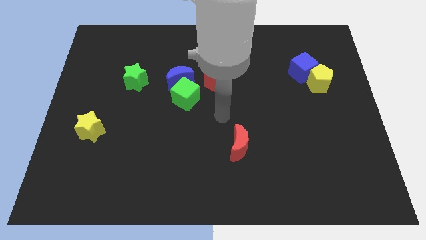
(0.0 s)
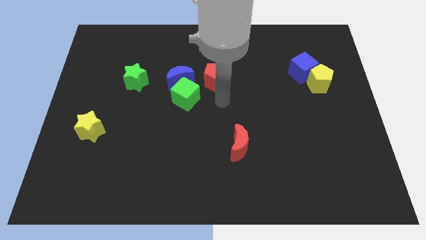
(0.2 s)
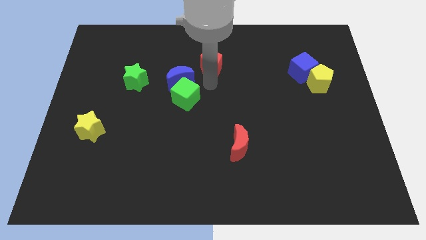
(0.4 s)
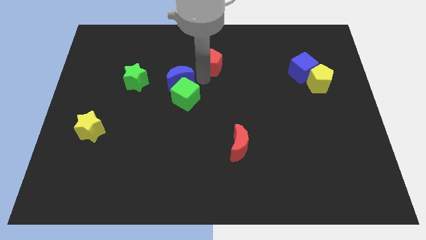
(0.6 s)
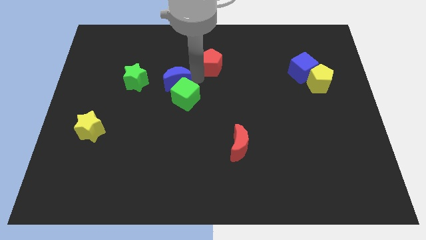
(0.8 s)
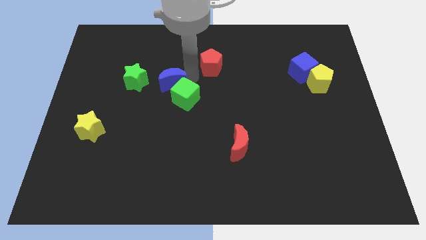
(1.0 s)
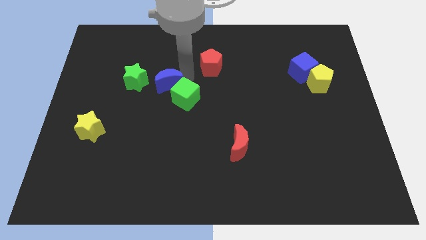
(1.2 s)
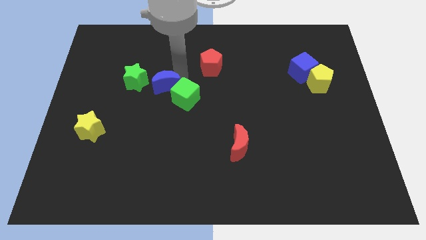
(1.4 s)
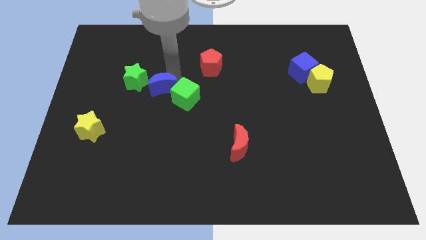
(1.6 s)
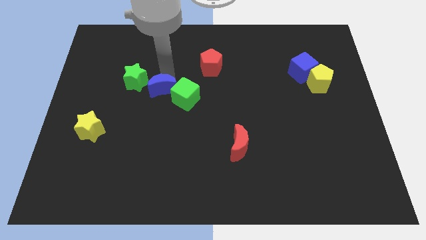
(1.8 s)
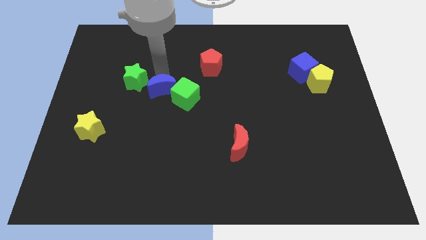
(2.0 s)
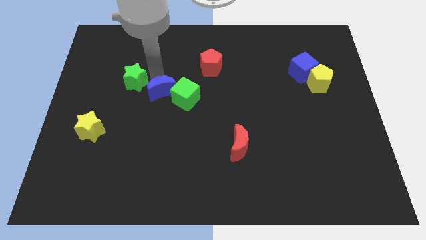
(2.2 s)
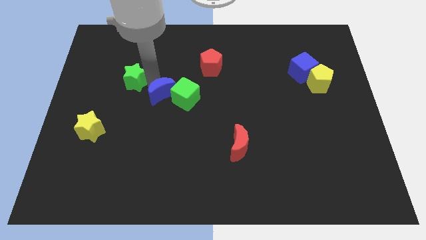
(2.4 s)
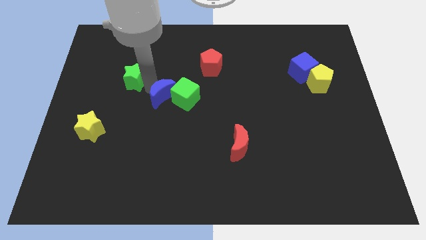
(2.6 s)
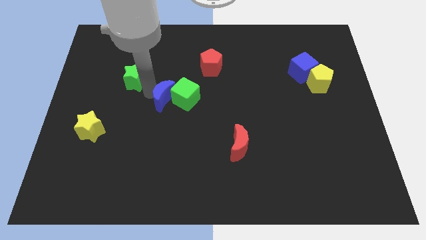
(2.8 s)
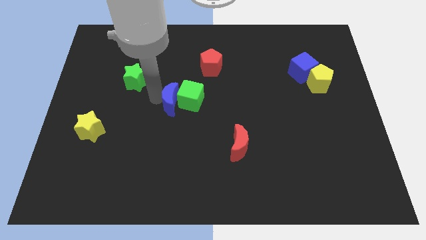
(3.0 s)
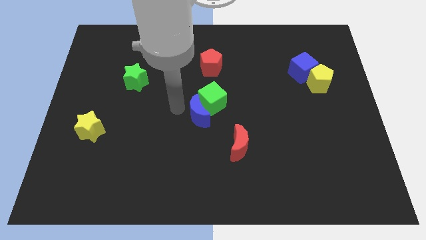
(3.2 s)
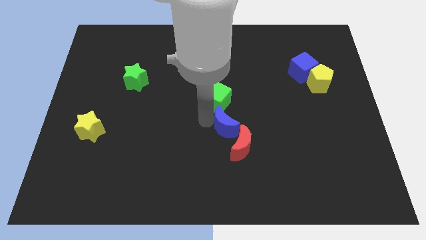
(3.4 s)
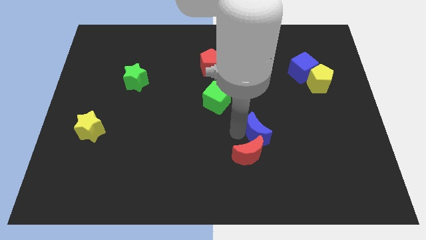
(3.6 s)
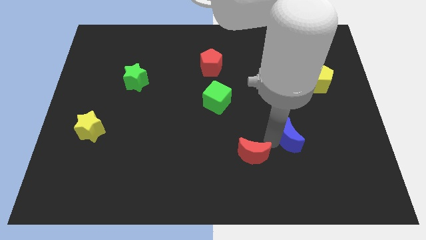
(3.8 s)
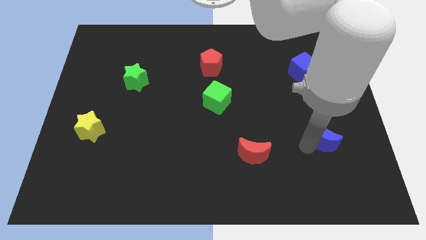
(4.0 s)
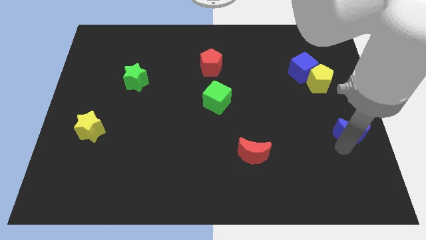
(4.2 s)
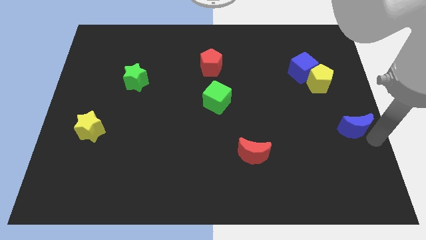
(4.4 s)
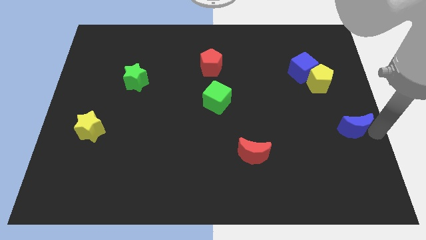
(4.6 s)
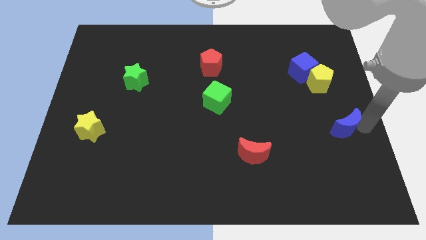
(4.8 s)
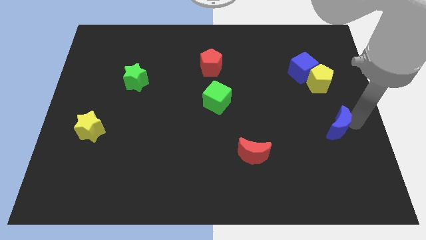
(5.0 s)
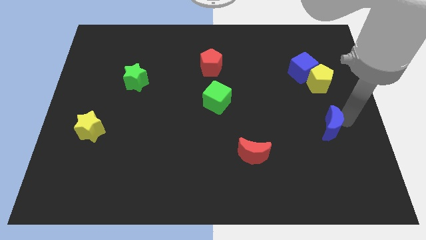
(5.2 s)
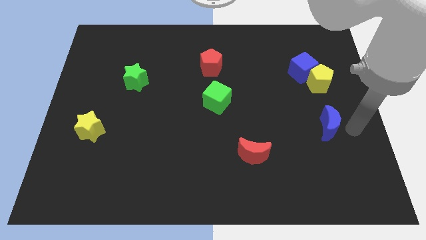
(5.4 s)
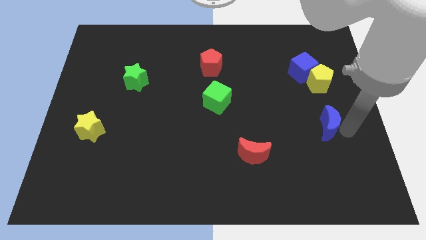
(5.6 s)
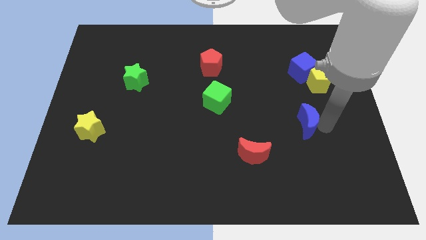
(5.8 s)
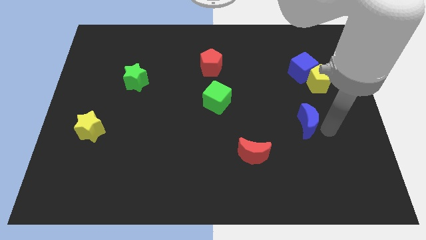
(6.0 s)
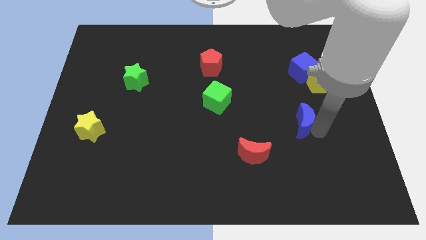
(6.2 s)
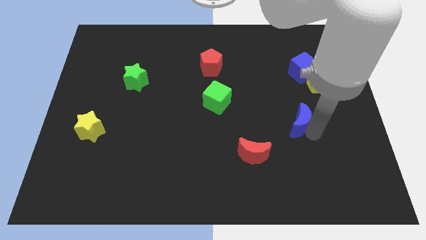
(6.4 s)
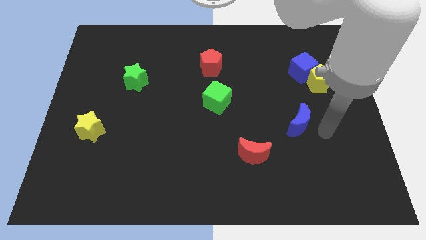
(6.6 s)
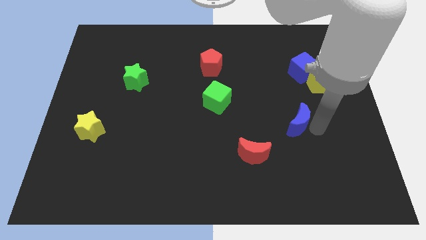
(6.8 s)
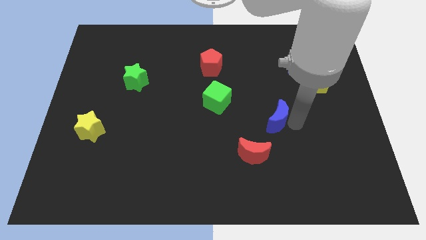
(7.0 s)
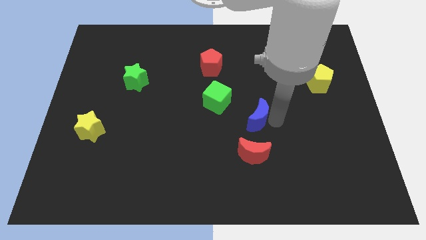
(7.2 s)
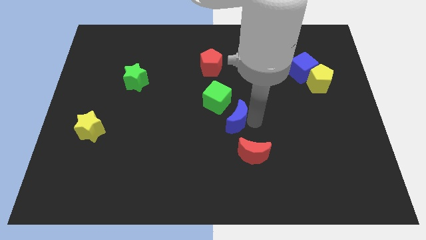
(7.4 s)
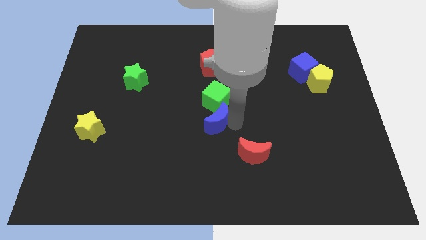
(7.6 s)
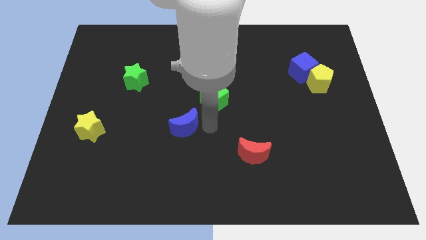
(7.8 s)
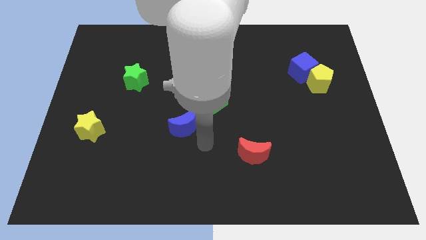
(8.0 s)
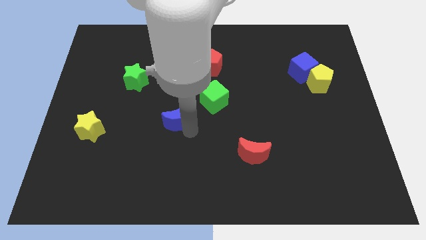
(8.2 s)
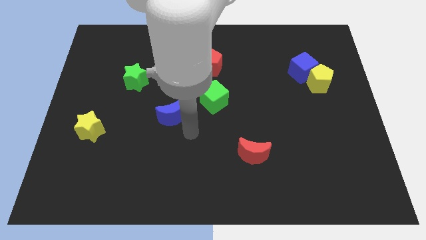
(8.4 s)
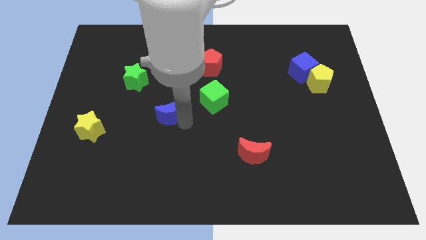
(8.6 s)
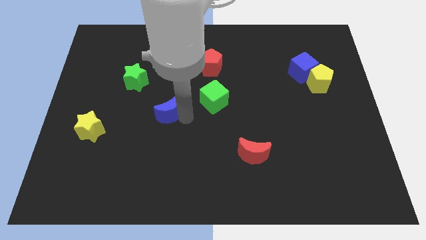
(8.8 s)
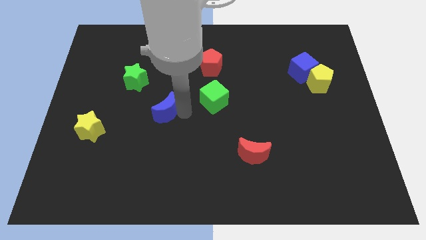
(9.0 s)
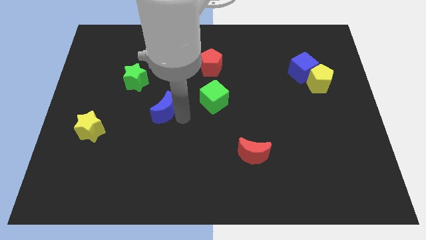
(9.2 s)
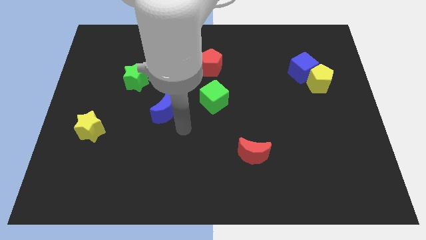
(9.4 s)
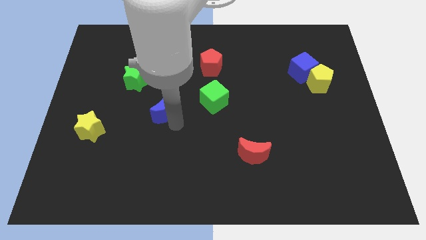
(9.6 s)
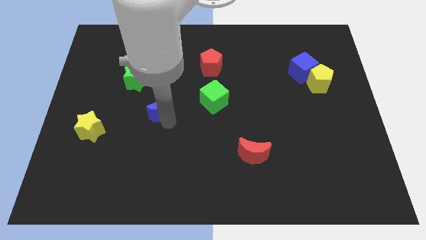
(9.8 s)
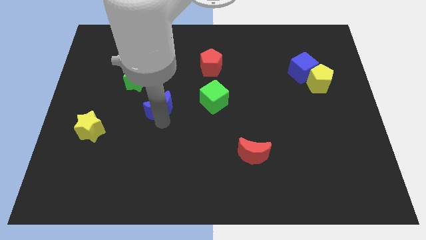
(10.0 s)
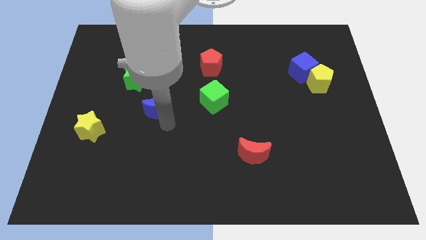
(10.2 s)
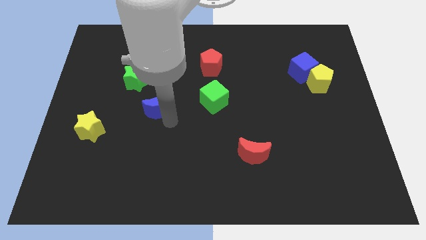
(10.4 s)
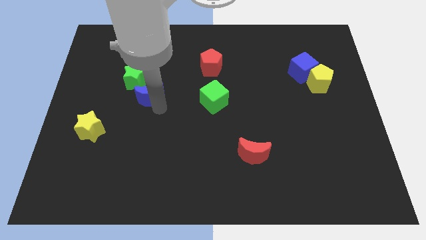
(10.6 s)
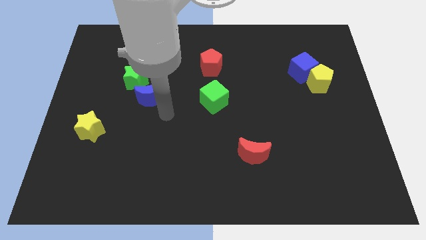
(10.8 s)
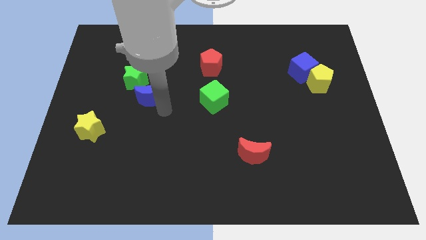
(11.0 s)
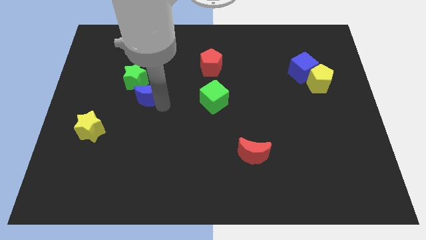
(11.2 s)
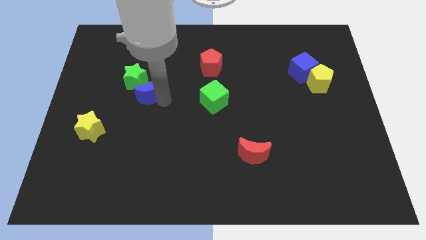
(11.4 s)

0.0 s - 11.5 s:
slide the blue moon close to the green star

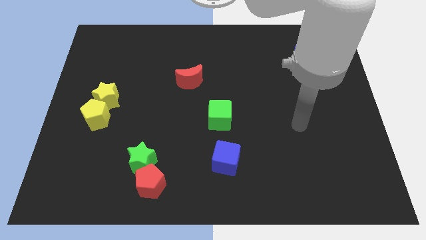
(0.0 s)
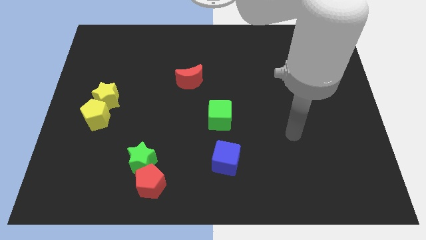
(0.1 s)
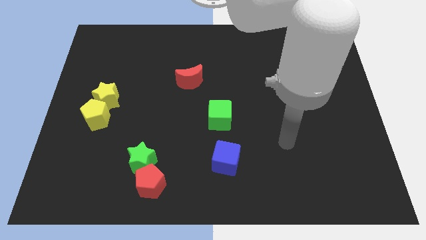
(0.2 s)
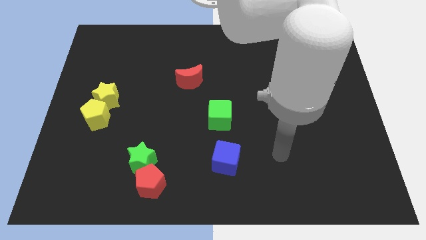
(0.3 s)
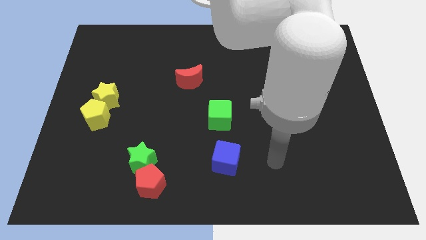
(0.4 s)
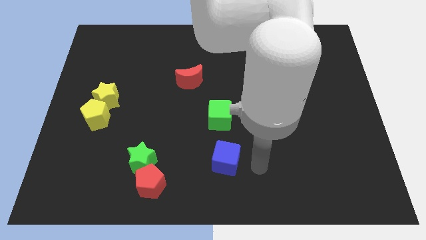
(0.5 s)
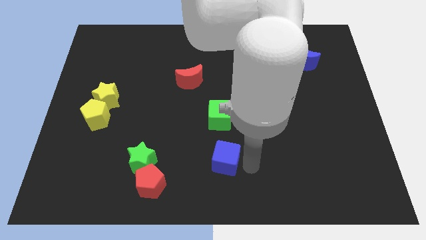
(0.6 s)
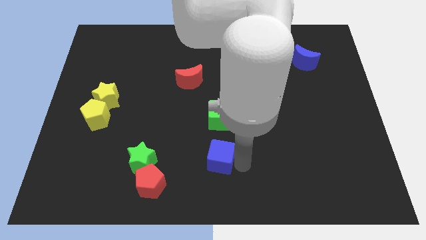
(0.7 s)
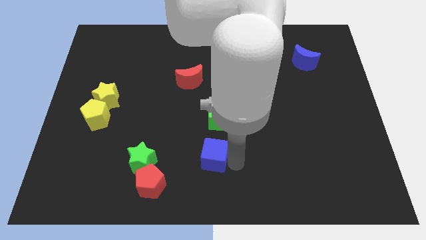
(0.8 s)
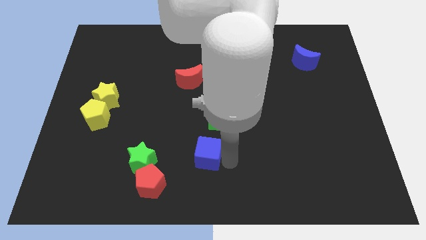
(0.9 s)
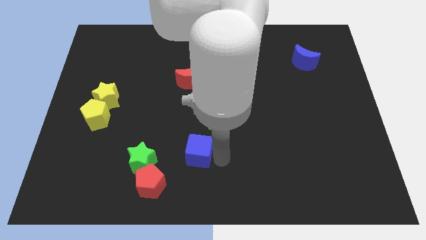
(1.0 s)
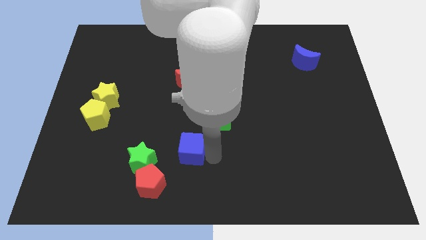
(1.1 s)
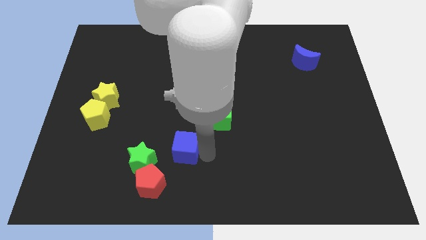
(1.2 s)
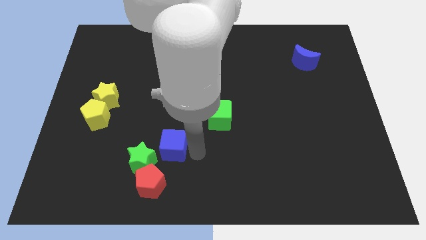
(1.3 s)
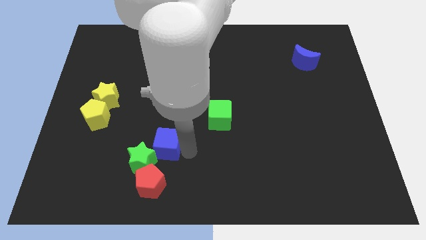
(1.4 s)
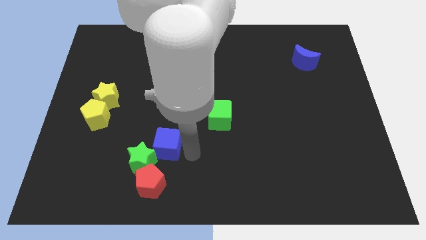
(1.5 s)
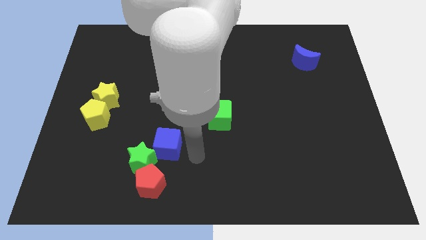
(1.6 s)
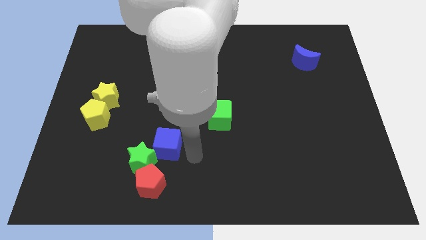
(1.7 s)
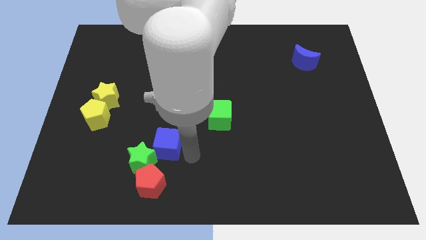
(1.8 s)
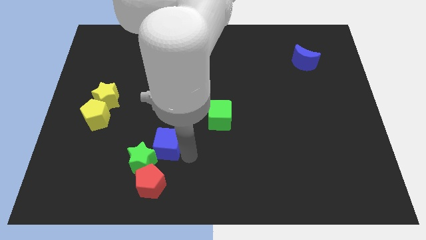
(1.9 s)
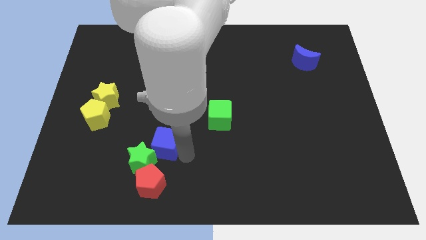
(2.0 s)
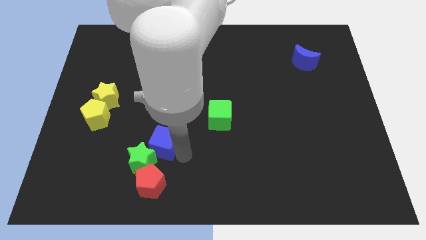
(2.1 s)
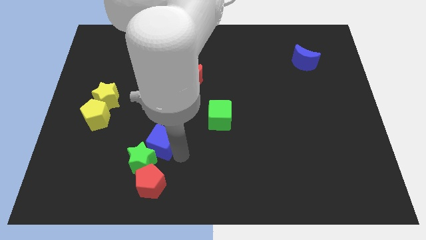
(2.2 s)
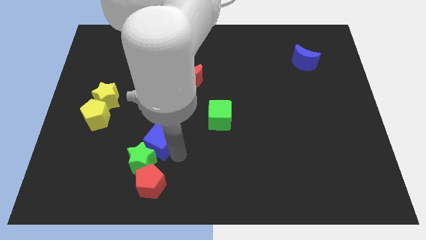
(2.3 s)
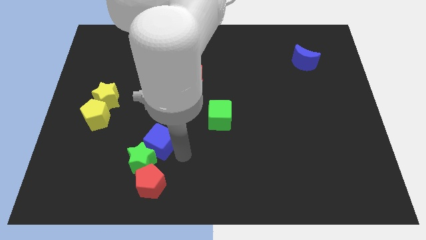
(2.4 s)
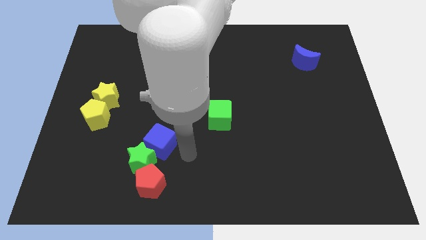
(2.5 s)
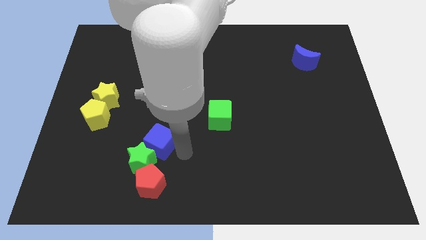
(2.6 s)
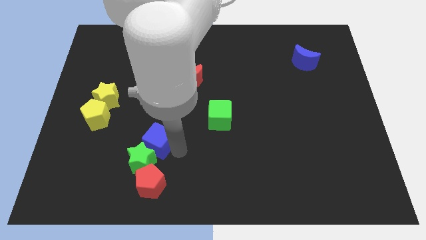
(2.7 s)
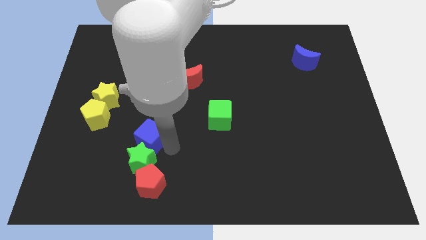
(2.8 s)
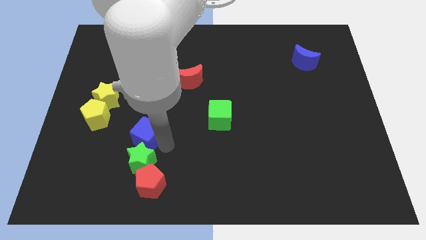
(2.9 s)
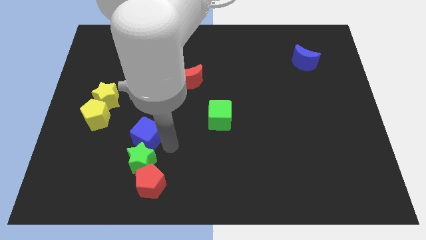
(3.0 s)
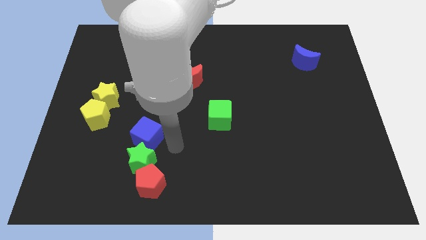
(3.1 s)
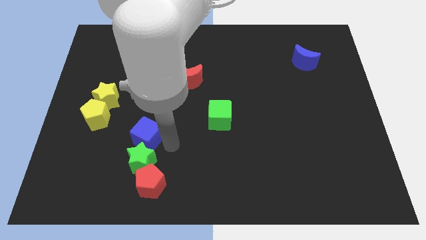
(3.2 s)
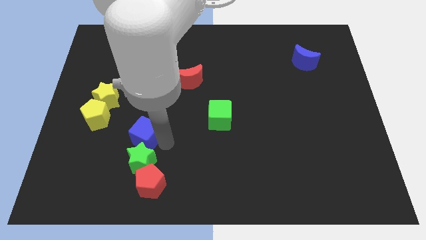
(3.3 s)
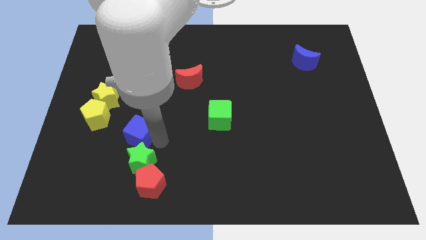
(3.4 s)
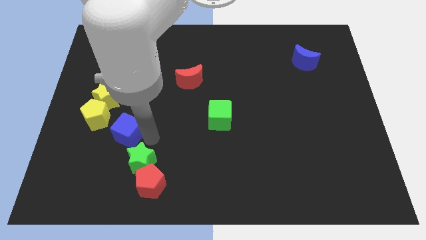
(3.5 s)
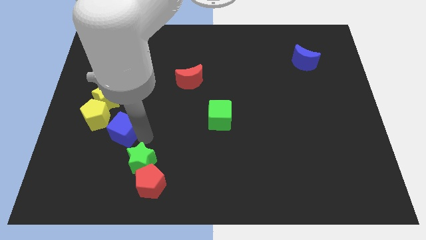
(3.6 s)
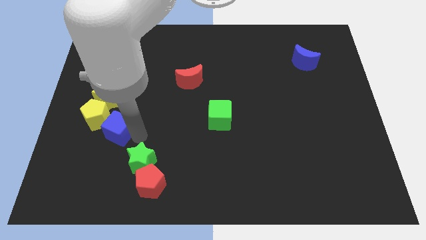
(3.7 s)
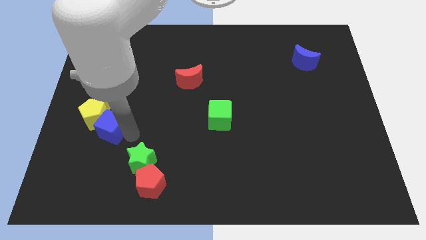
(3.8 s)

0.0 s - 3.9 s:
push the blue cube towards the yellow pentagon
